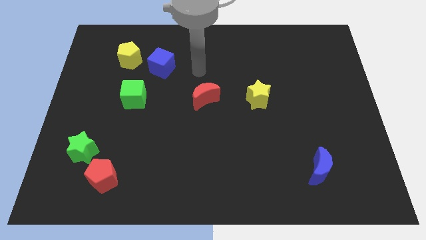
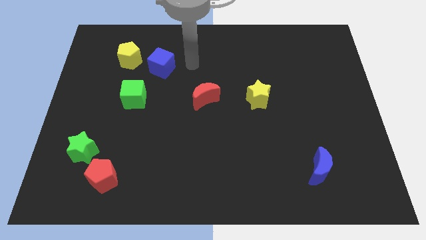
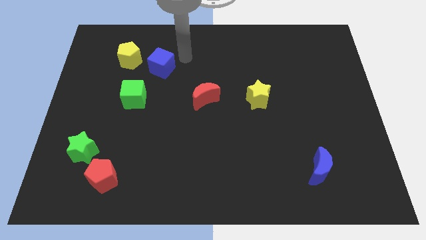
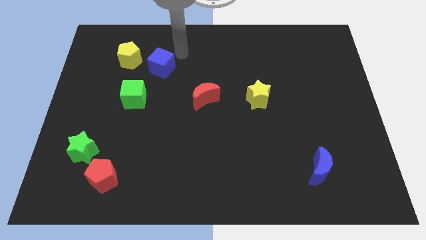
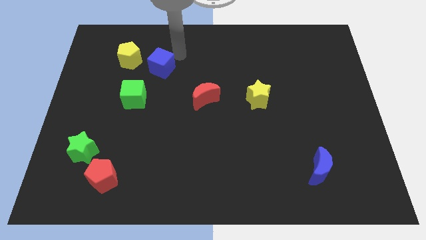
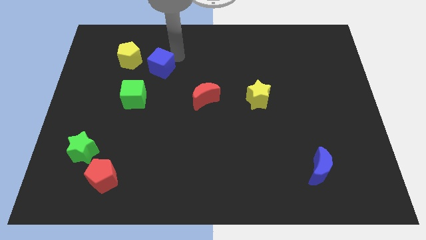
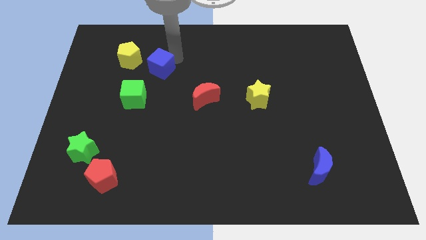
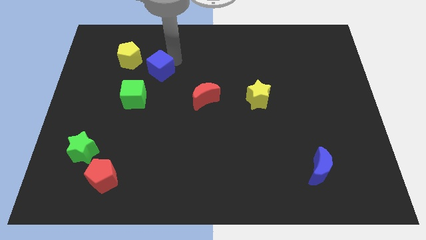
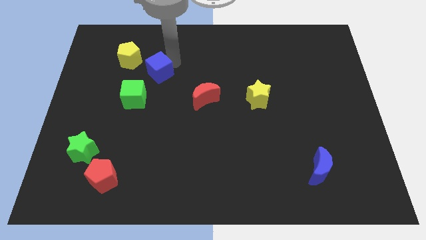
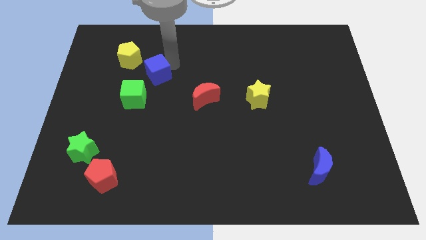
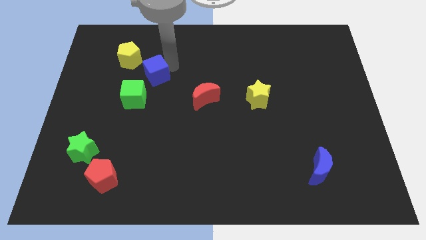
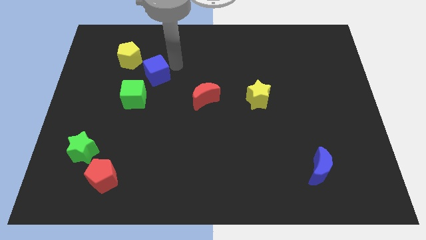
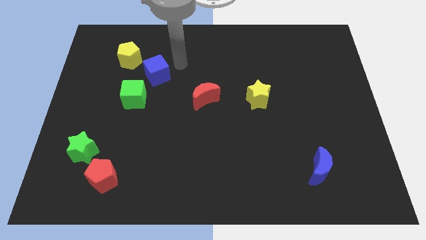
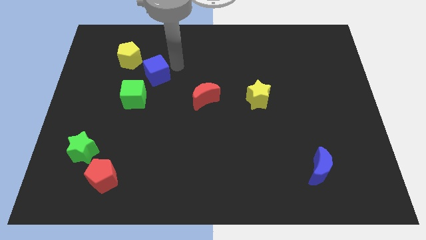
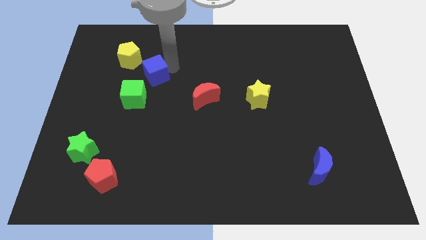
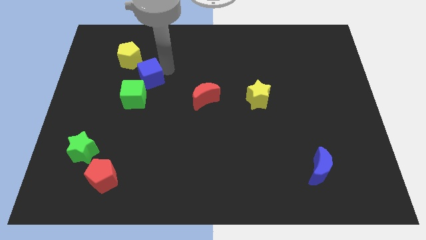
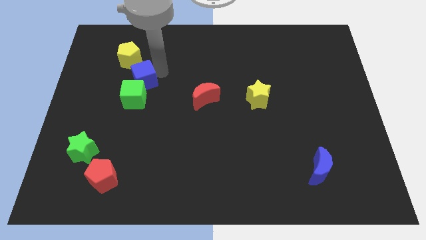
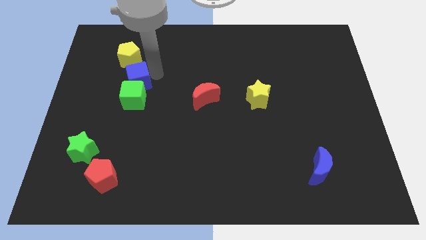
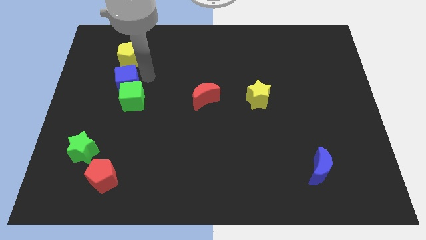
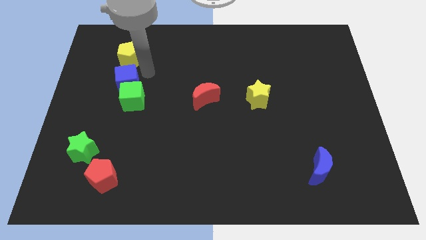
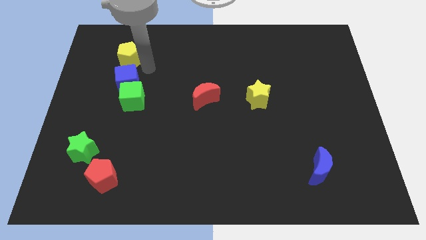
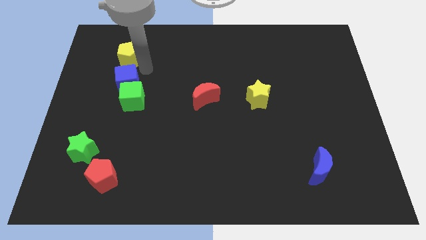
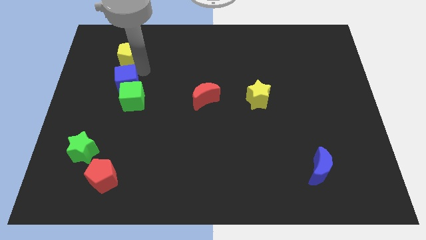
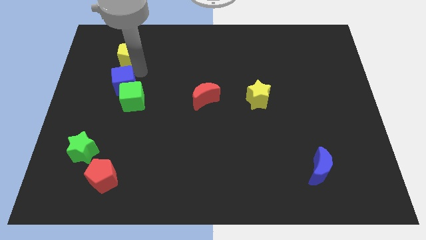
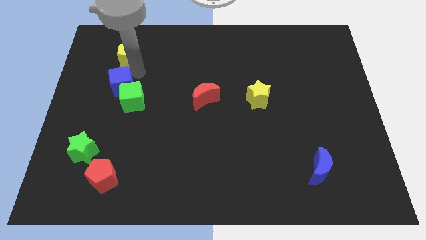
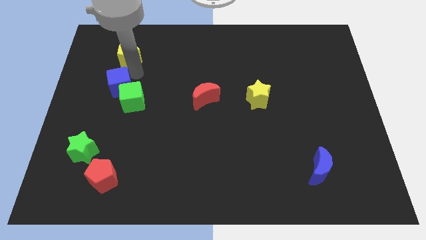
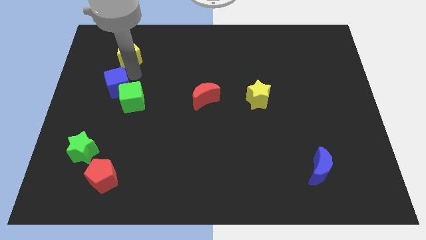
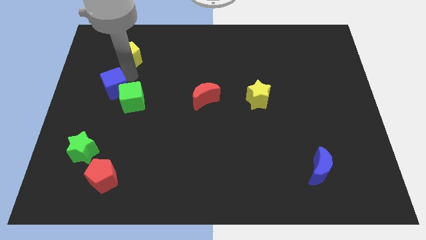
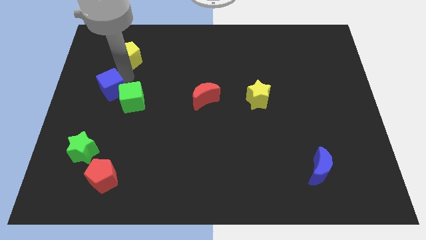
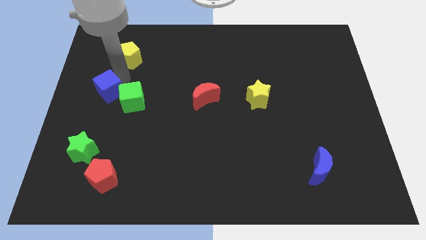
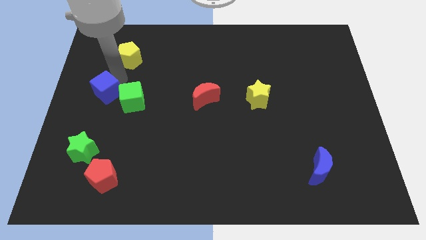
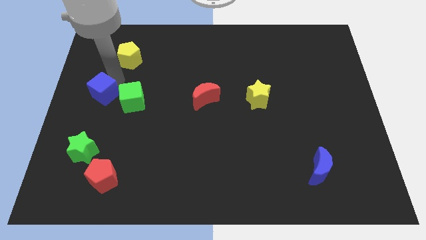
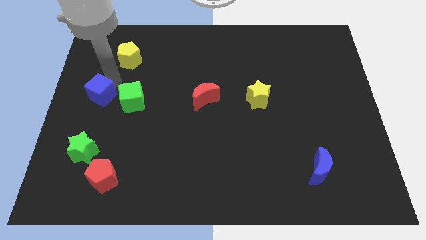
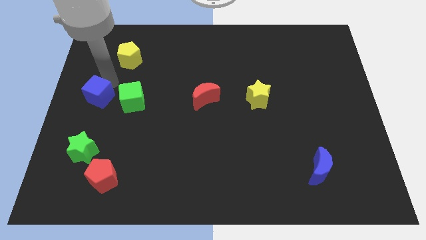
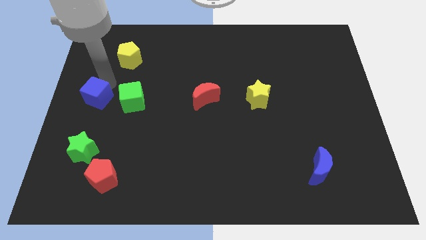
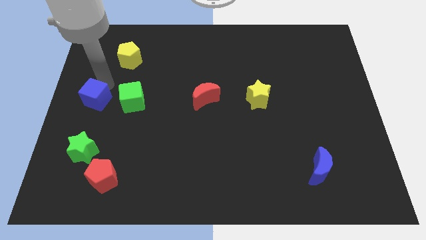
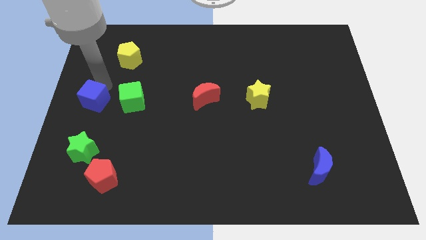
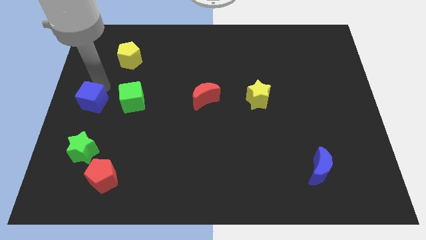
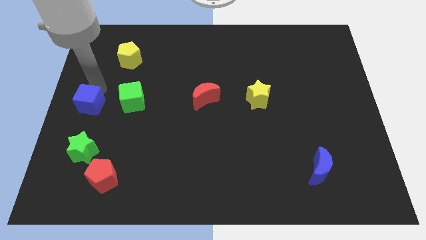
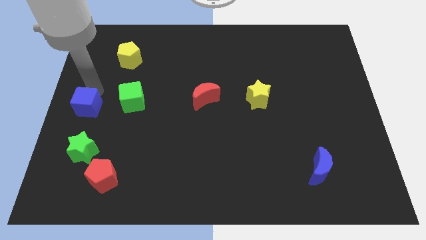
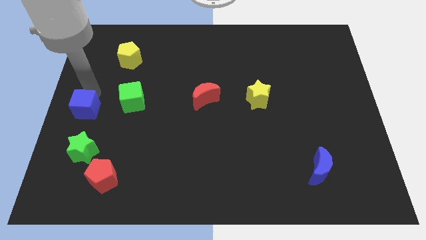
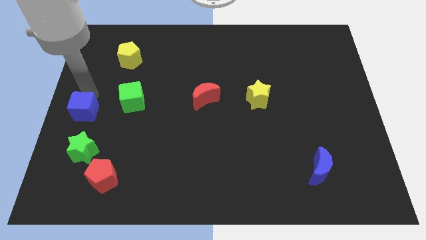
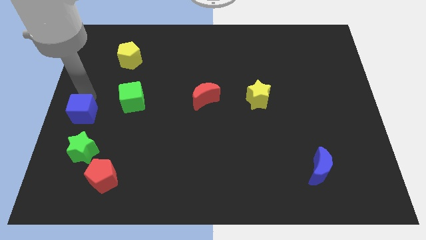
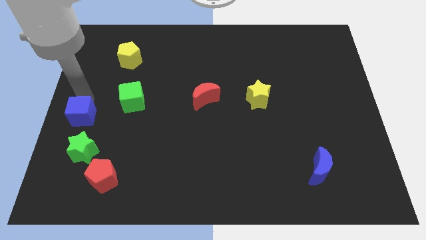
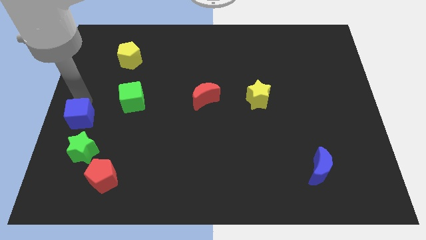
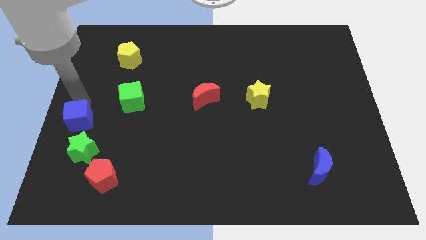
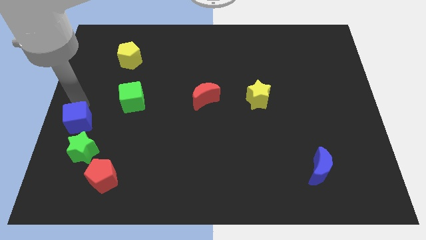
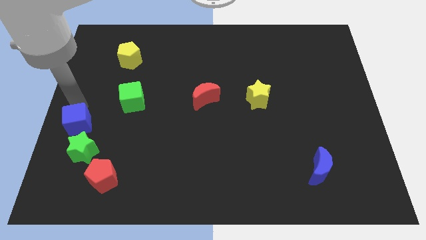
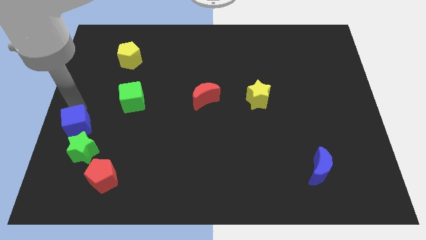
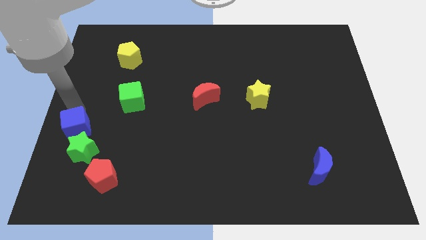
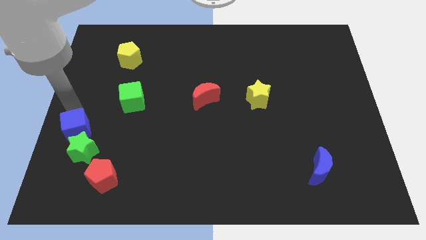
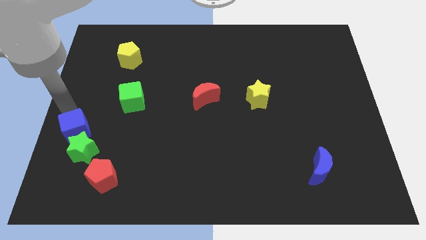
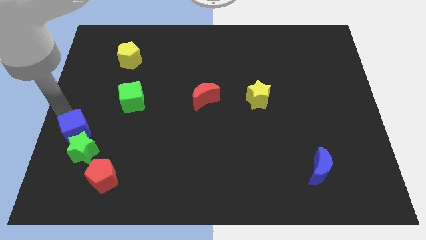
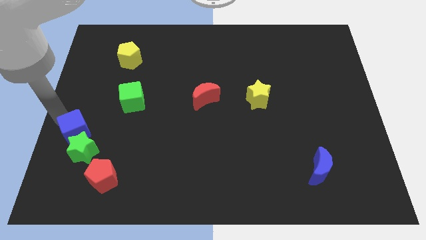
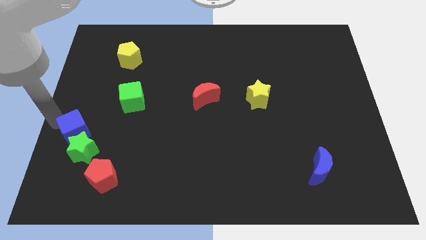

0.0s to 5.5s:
slide the blue cube to the green star

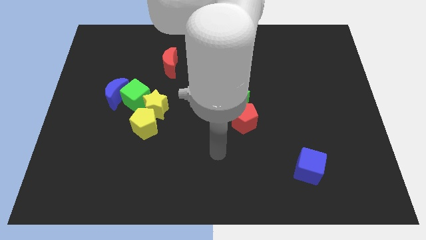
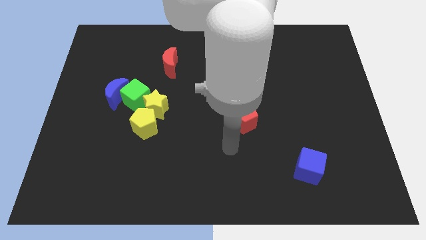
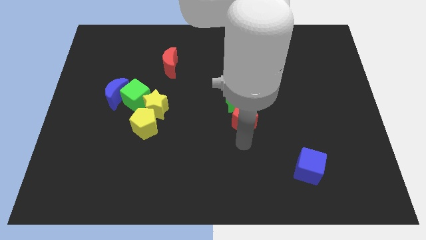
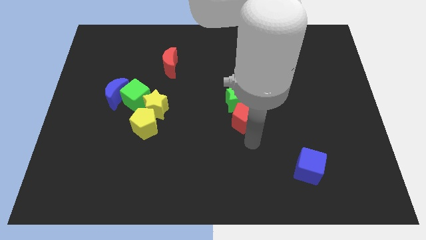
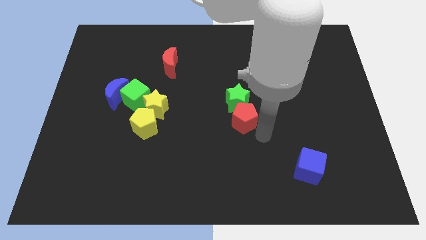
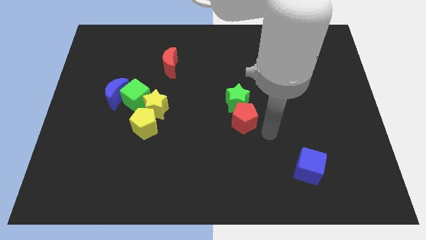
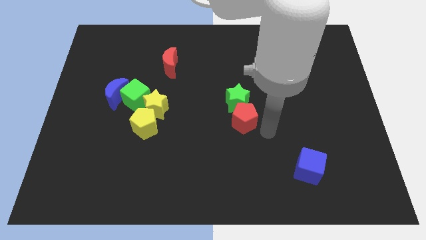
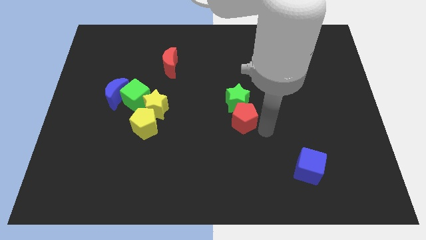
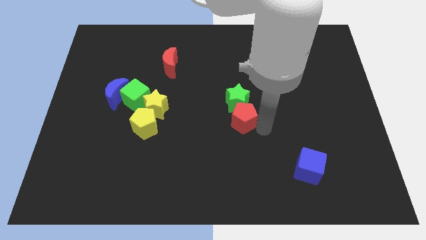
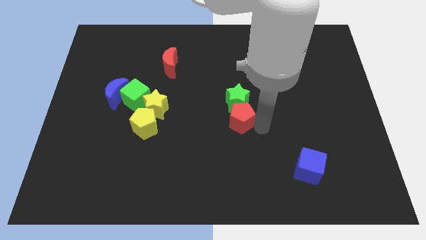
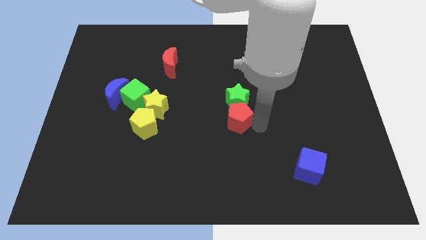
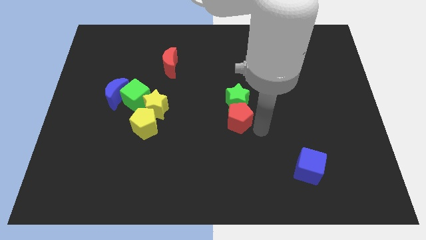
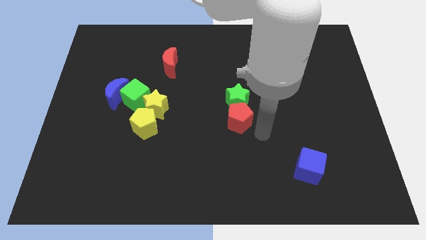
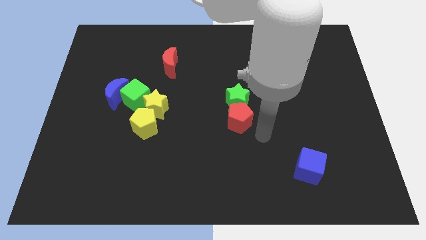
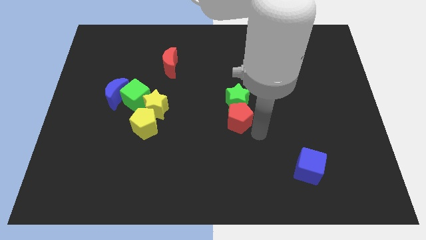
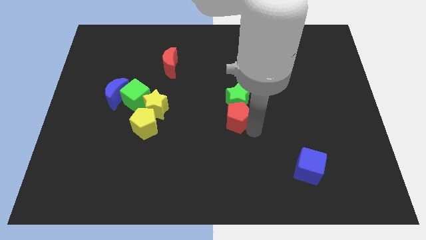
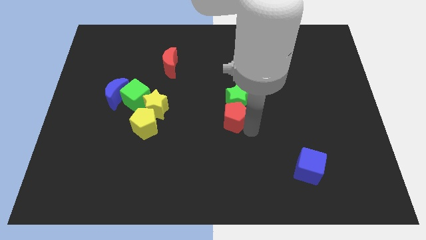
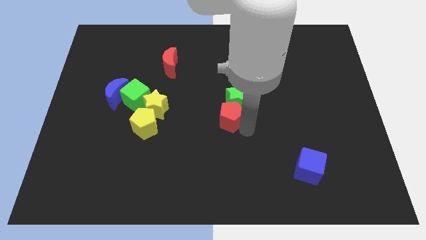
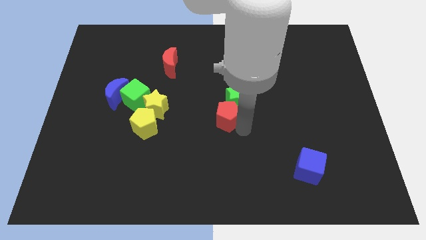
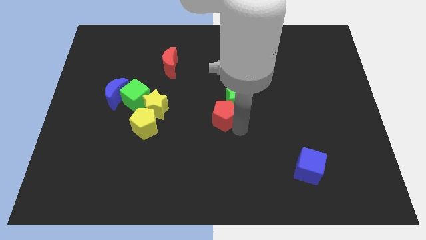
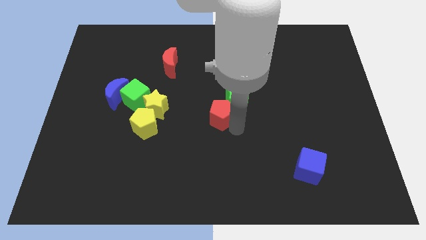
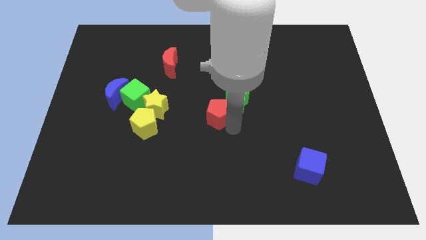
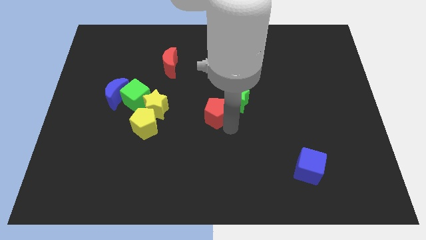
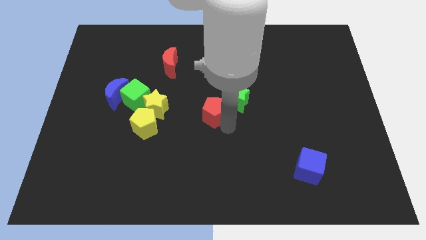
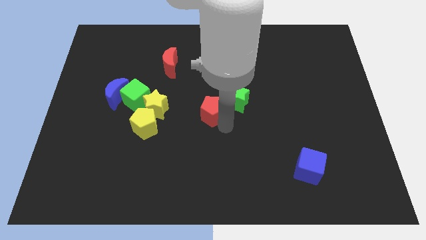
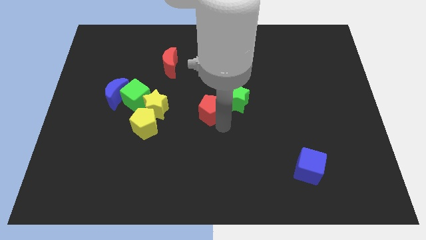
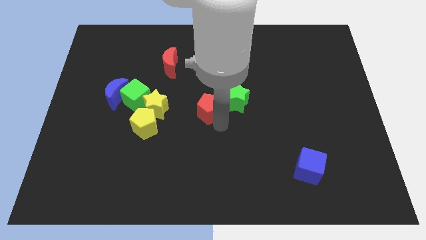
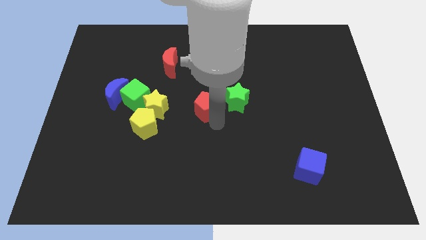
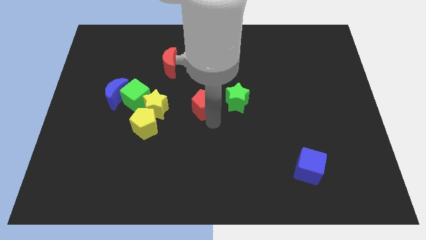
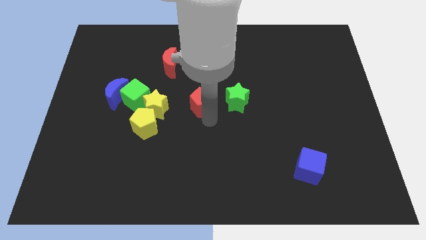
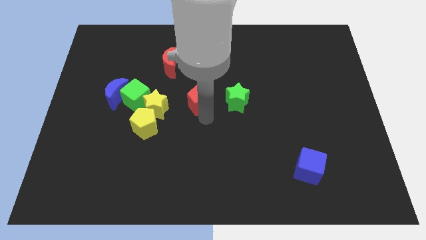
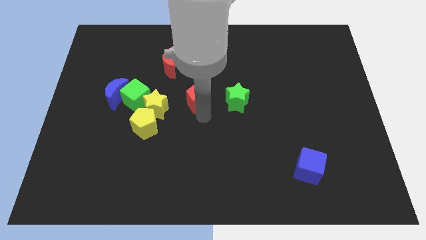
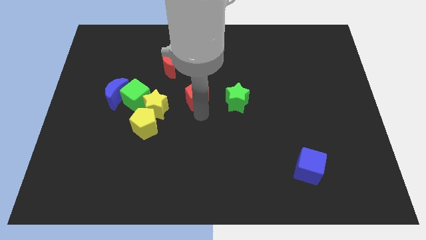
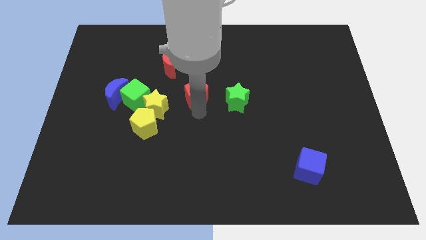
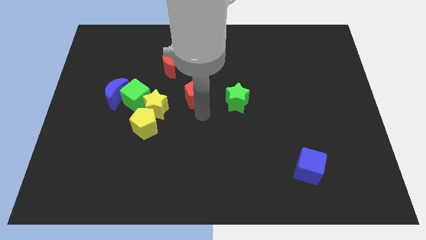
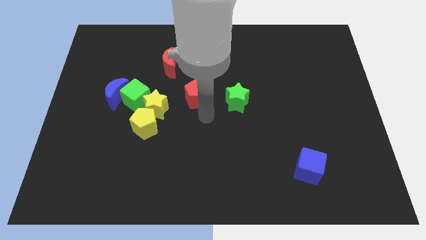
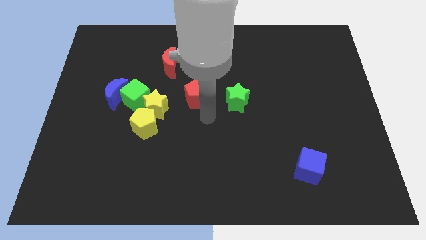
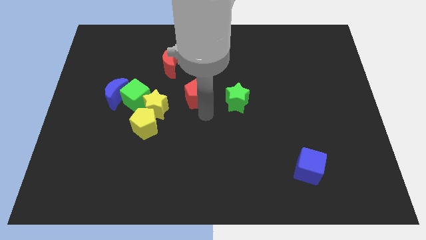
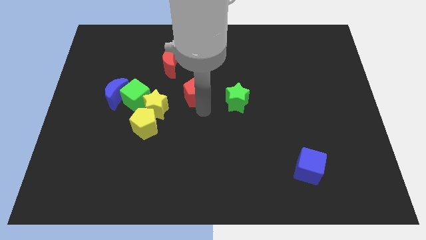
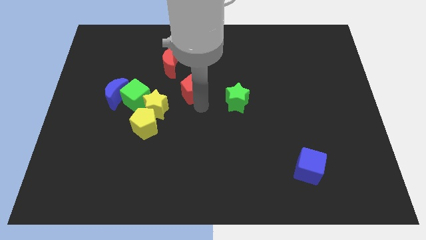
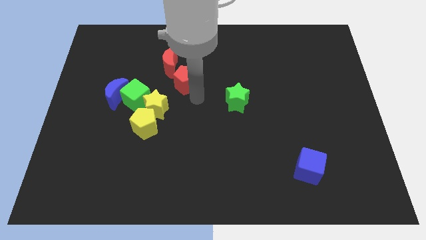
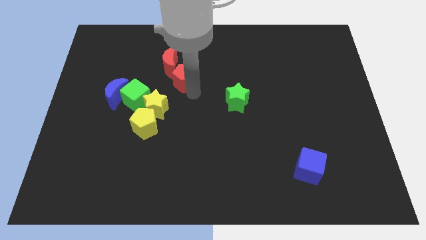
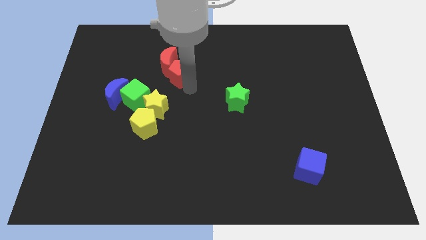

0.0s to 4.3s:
move the red pentagon next to the red moon
